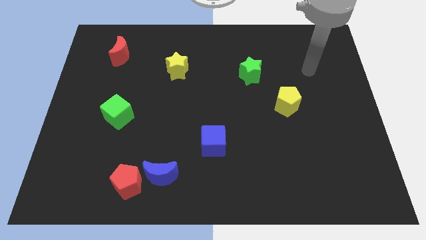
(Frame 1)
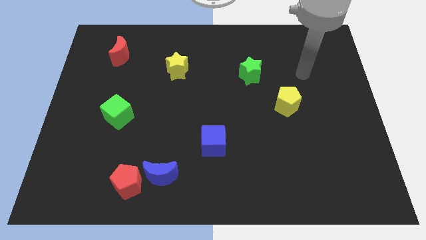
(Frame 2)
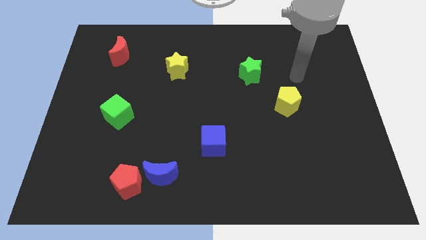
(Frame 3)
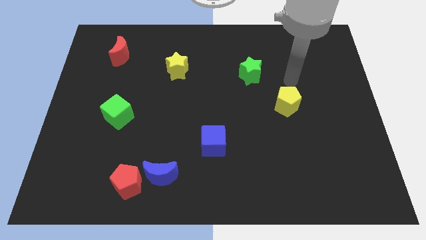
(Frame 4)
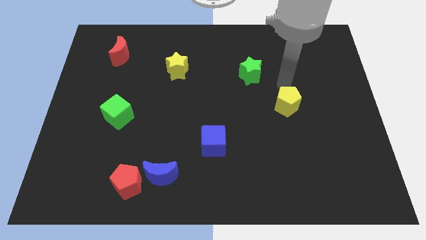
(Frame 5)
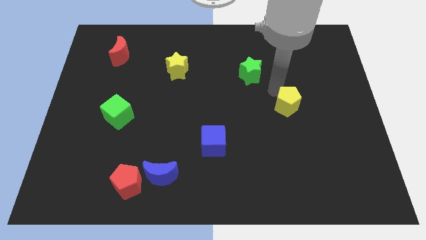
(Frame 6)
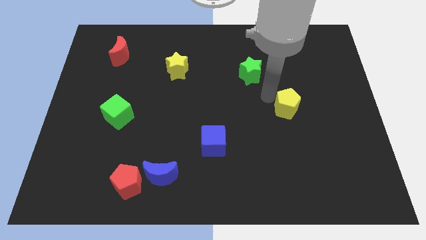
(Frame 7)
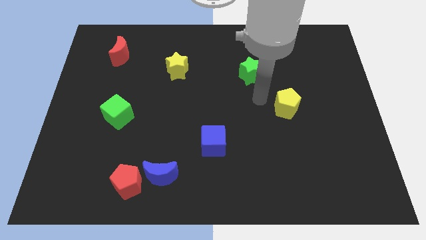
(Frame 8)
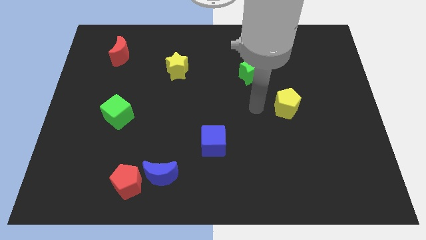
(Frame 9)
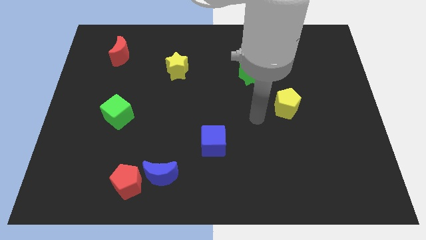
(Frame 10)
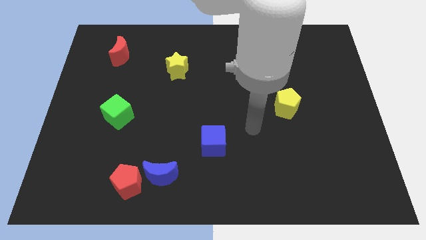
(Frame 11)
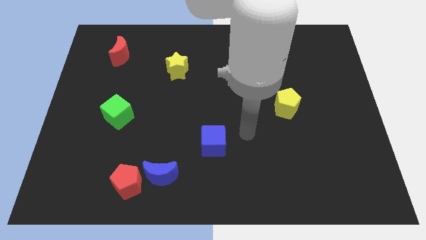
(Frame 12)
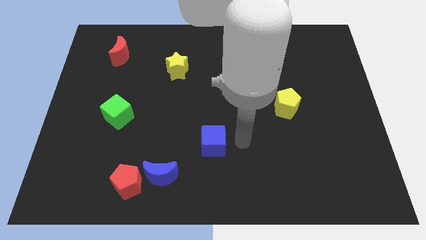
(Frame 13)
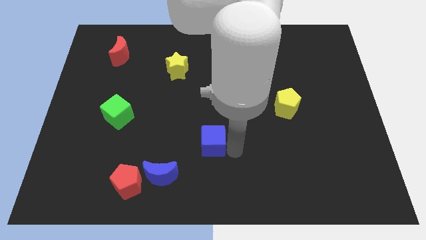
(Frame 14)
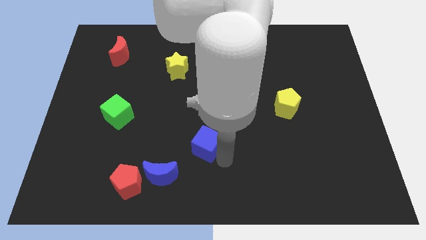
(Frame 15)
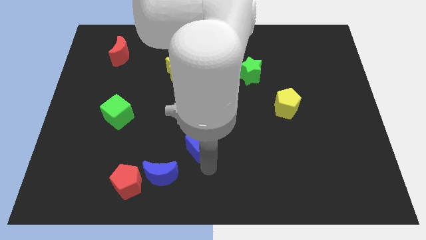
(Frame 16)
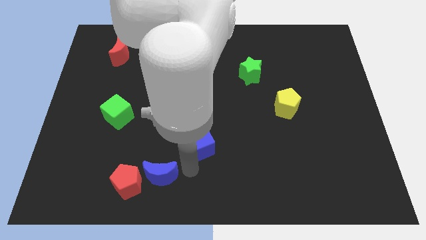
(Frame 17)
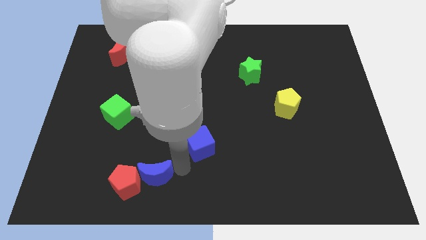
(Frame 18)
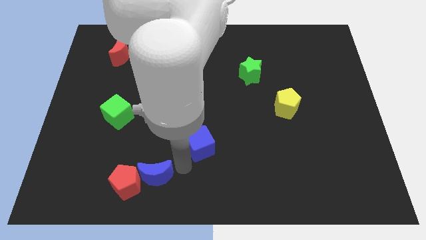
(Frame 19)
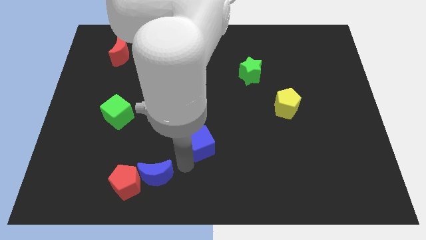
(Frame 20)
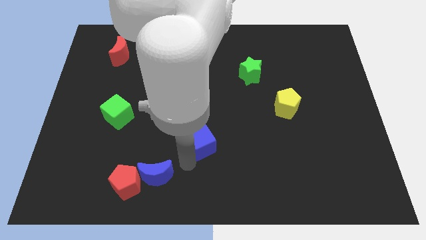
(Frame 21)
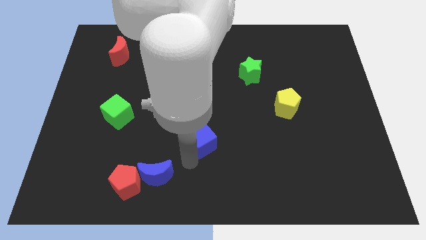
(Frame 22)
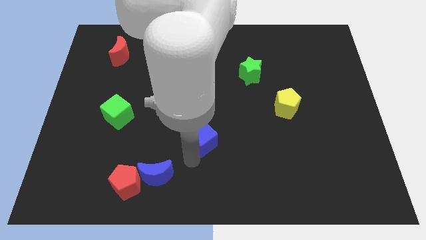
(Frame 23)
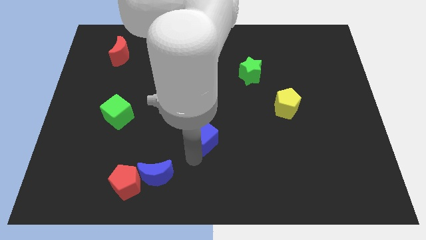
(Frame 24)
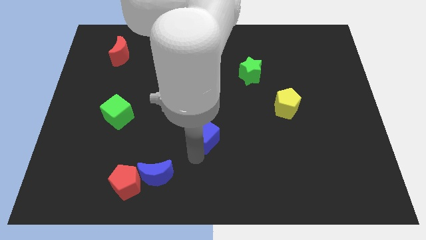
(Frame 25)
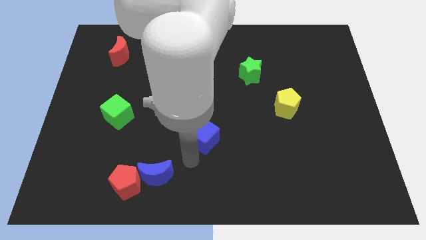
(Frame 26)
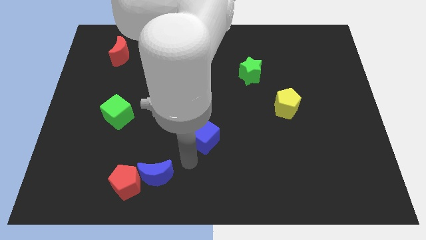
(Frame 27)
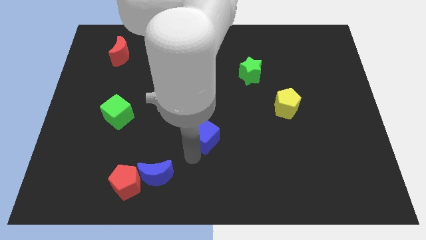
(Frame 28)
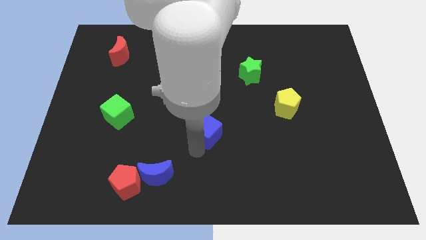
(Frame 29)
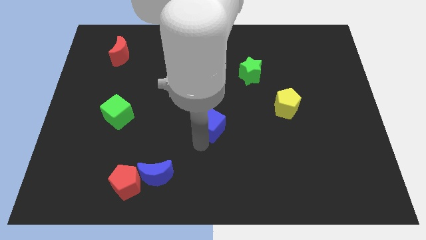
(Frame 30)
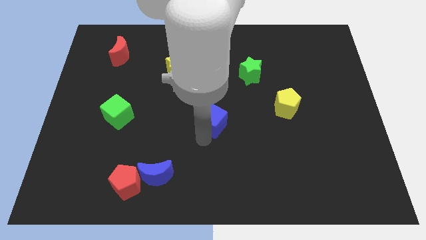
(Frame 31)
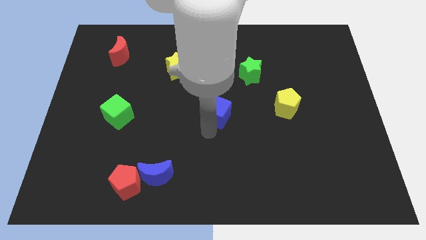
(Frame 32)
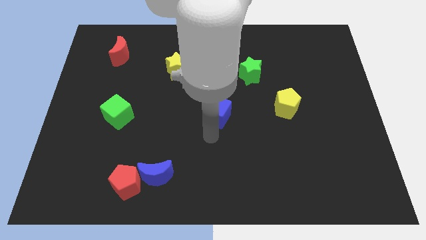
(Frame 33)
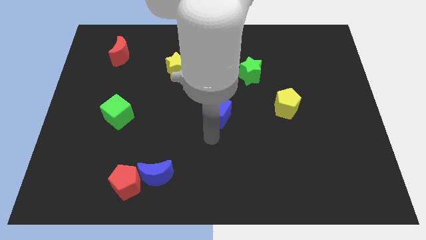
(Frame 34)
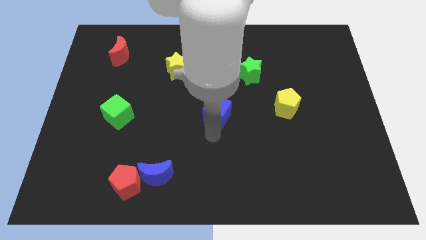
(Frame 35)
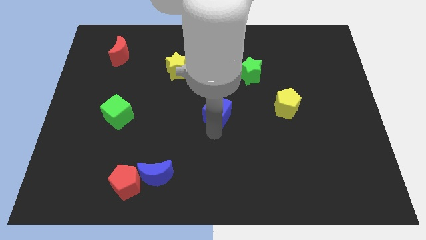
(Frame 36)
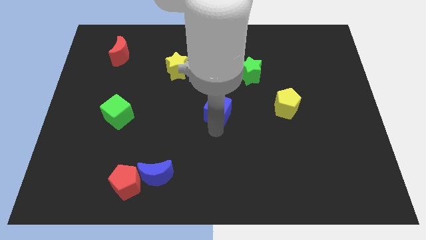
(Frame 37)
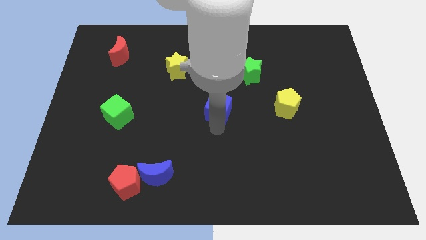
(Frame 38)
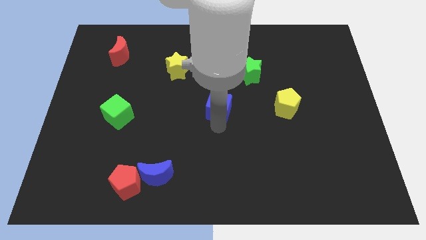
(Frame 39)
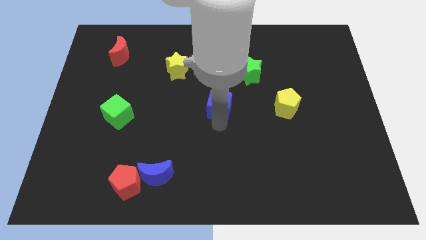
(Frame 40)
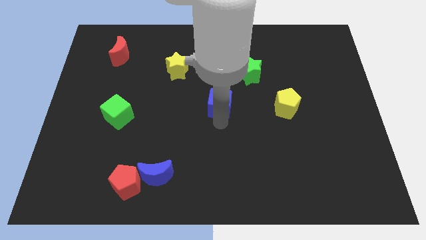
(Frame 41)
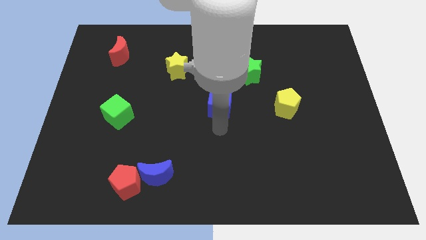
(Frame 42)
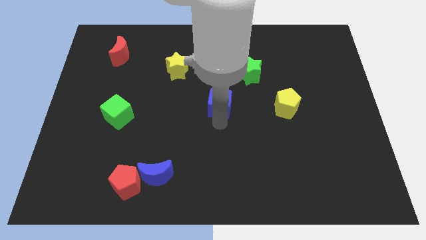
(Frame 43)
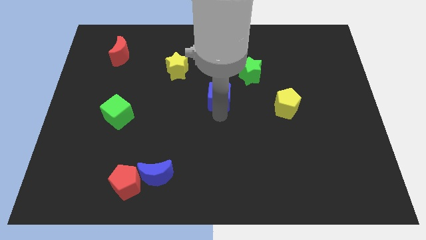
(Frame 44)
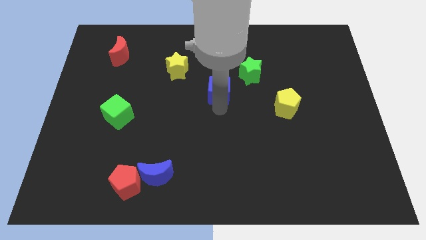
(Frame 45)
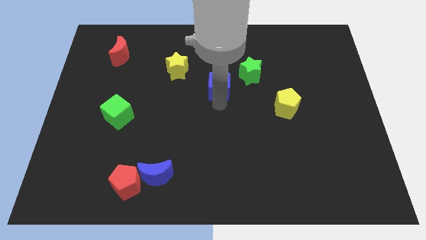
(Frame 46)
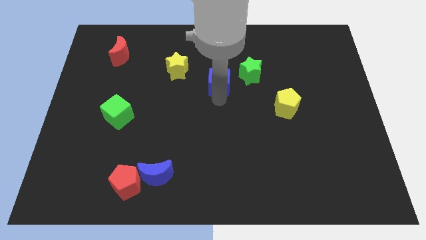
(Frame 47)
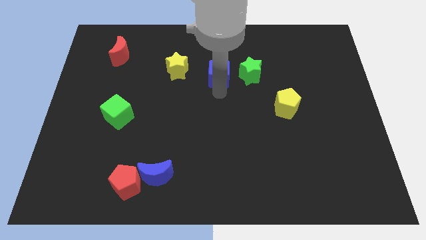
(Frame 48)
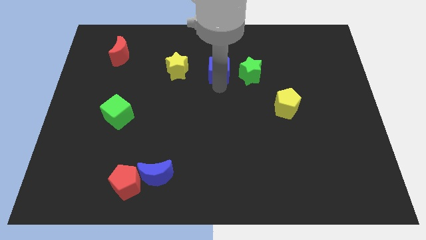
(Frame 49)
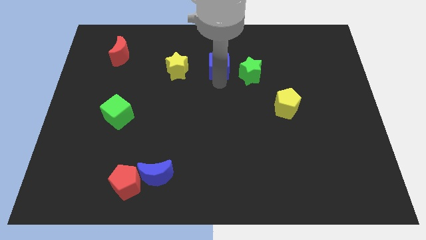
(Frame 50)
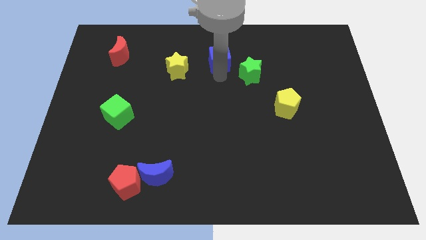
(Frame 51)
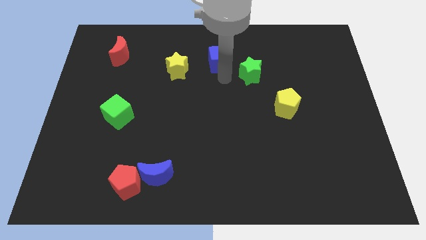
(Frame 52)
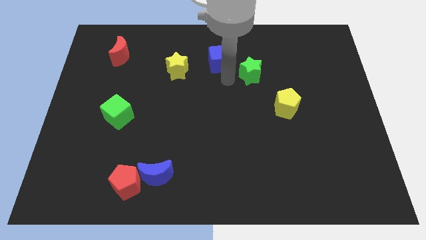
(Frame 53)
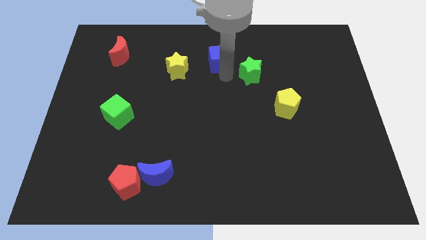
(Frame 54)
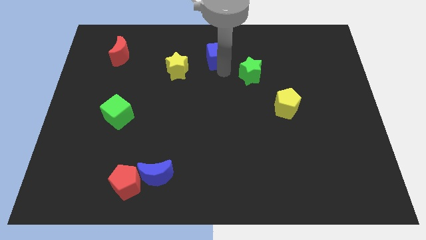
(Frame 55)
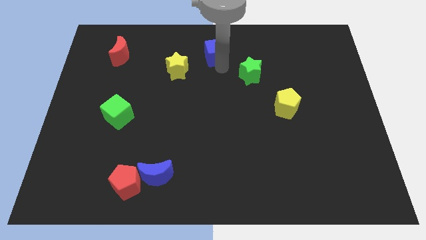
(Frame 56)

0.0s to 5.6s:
push the blue cube to the towards your base
